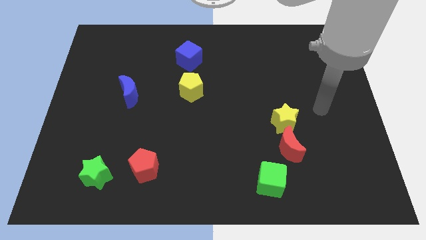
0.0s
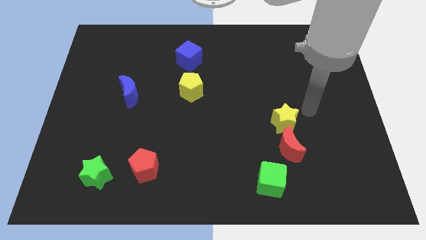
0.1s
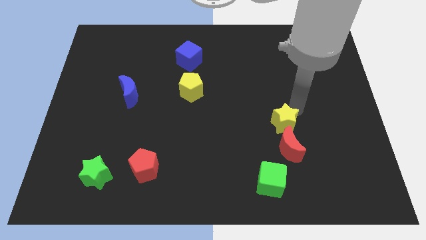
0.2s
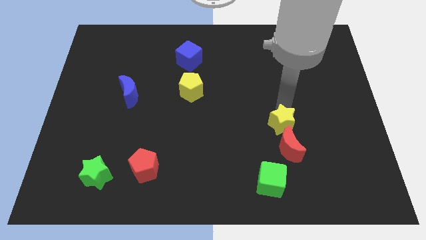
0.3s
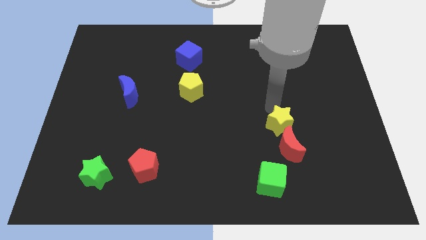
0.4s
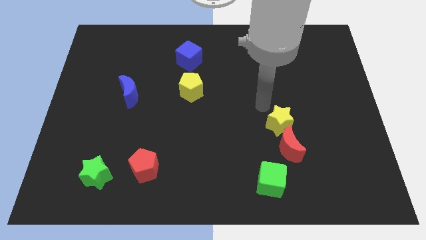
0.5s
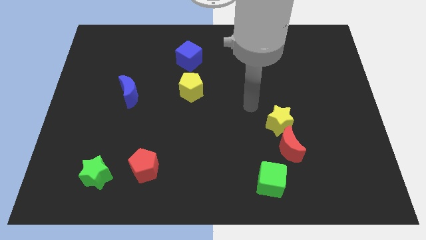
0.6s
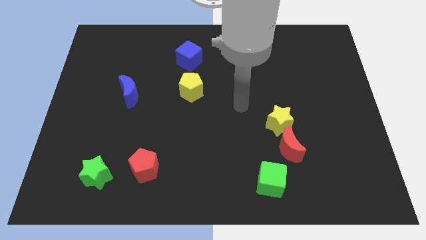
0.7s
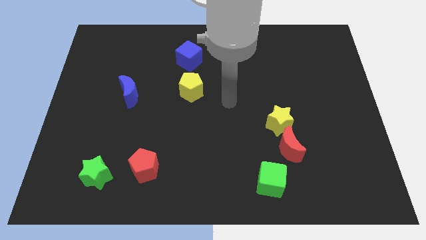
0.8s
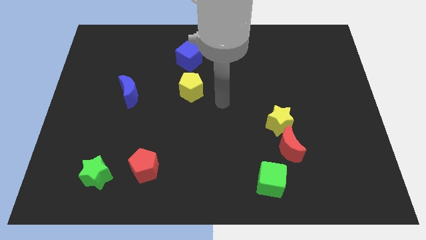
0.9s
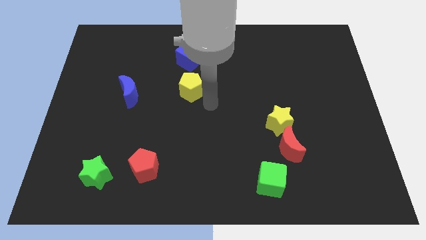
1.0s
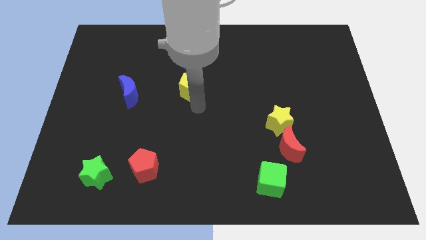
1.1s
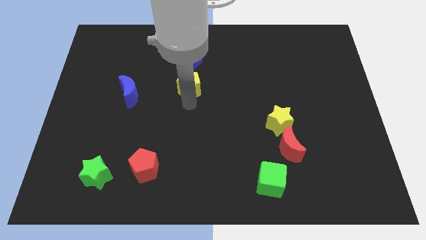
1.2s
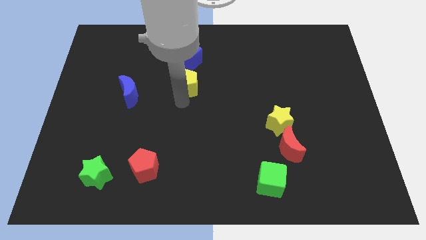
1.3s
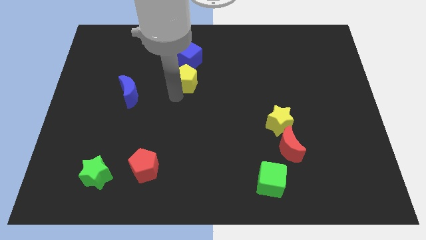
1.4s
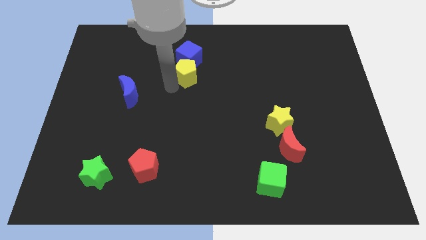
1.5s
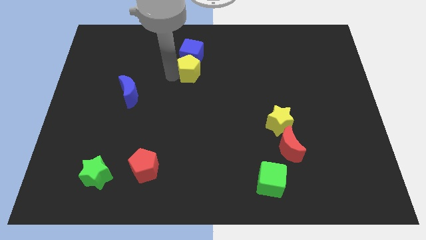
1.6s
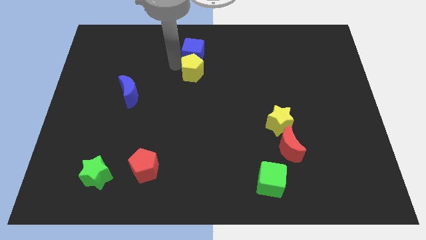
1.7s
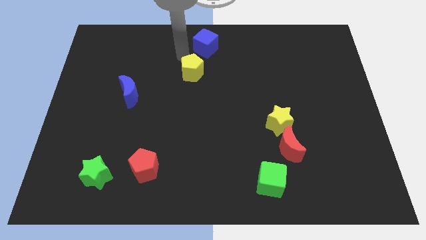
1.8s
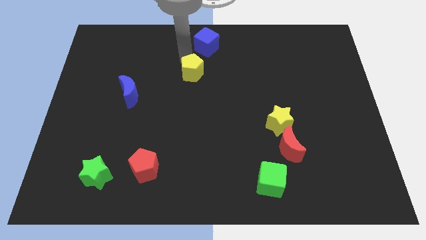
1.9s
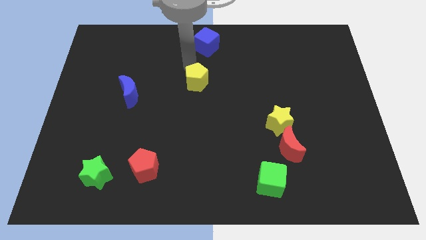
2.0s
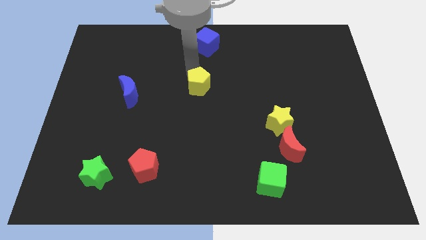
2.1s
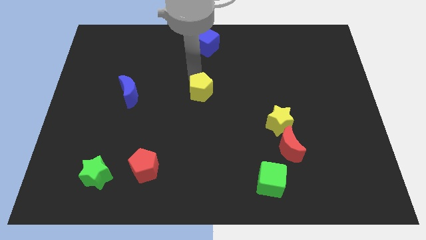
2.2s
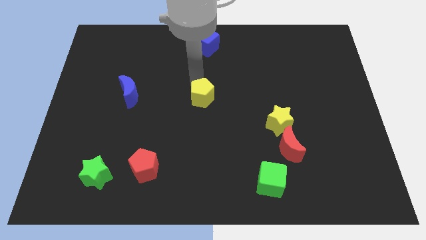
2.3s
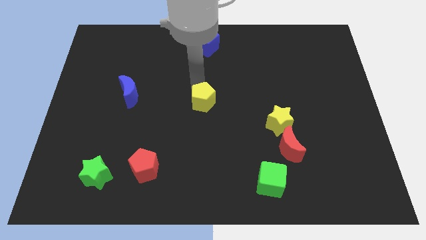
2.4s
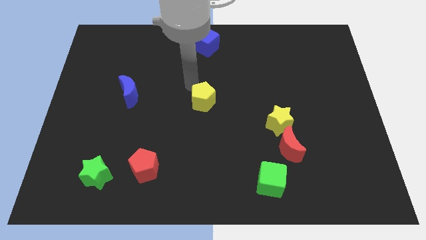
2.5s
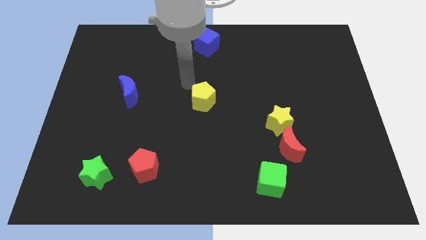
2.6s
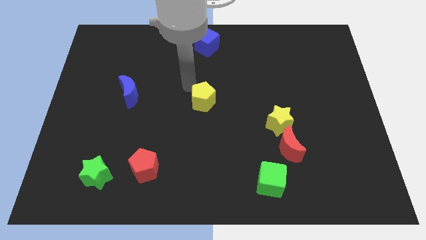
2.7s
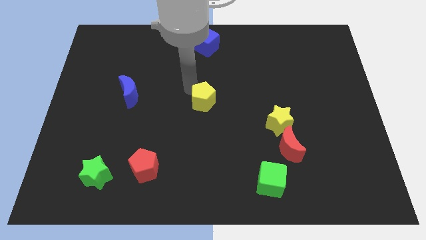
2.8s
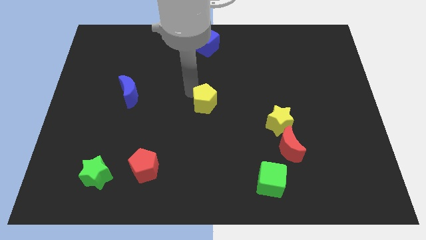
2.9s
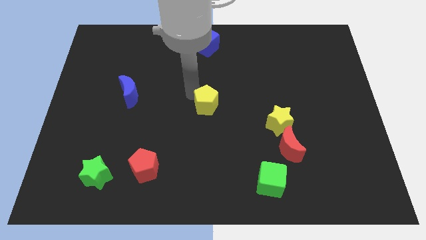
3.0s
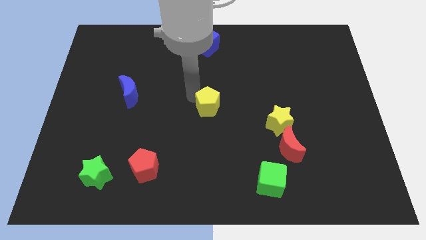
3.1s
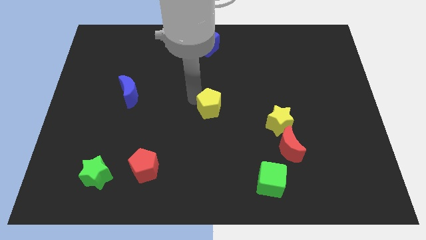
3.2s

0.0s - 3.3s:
slightly slide the yellow pentagon down and to the right

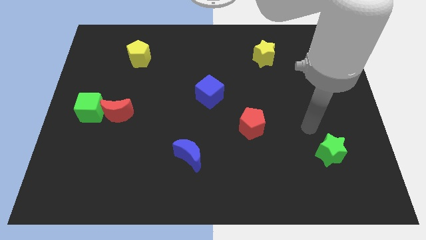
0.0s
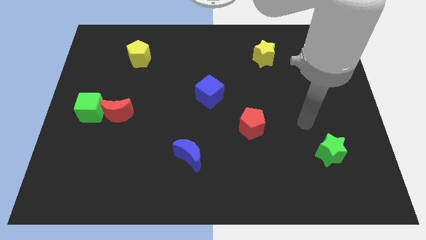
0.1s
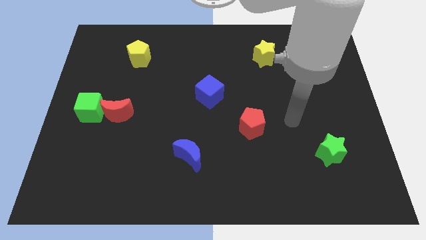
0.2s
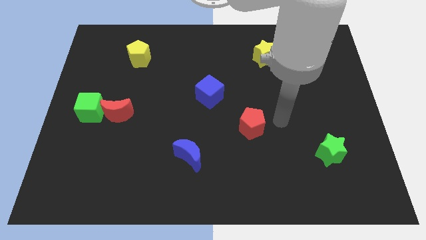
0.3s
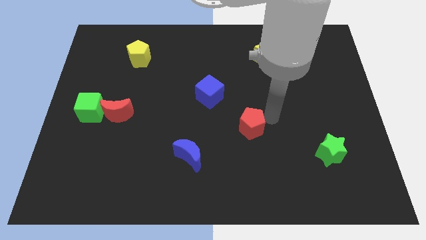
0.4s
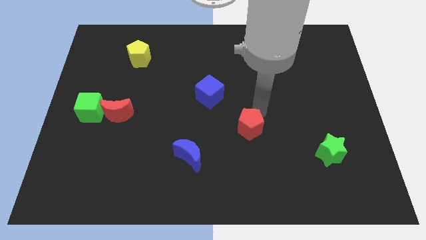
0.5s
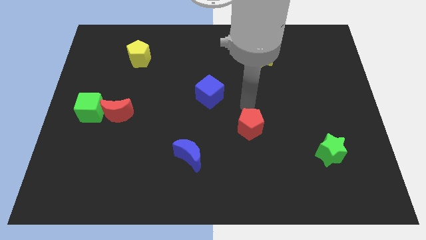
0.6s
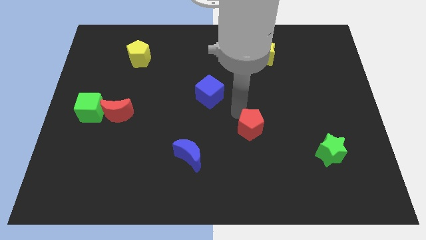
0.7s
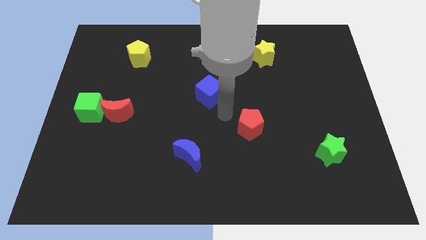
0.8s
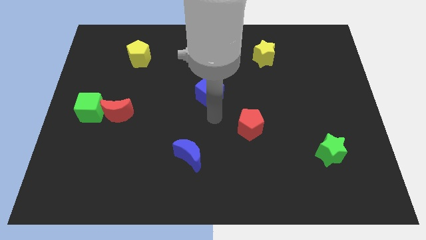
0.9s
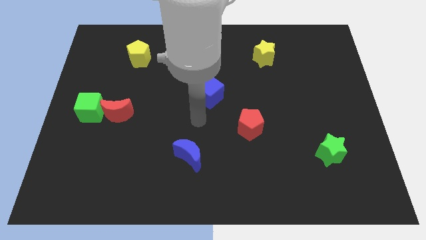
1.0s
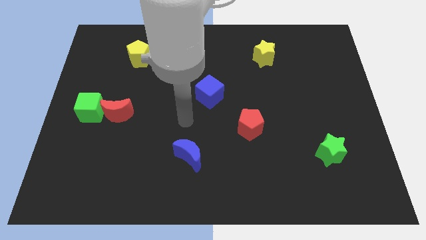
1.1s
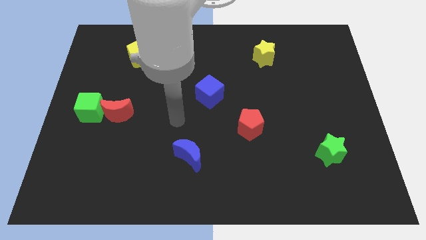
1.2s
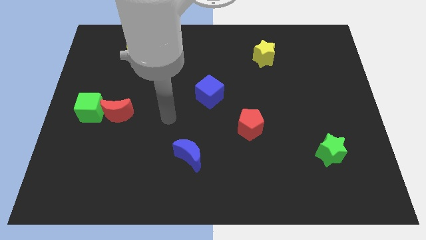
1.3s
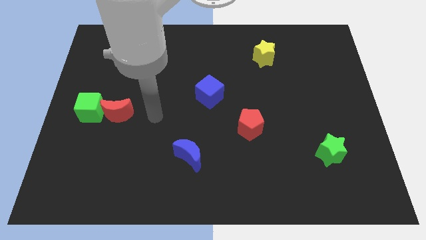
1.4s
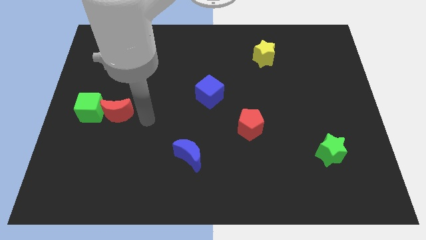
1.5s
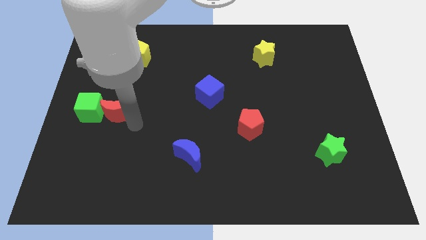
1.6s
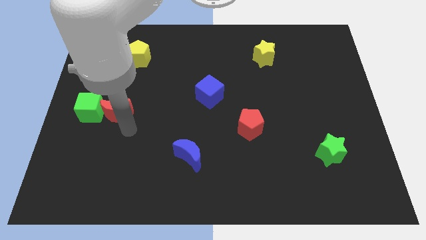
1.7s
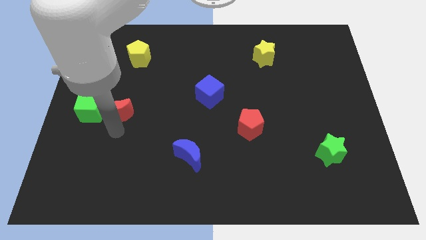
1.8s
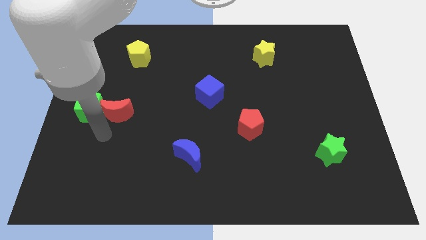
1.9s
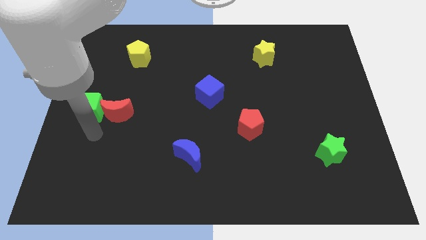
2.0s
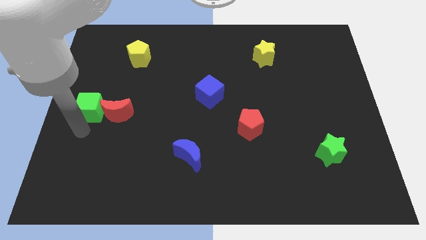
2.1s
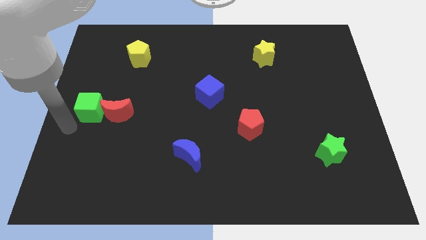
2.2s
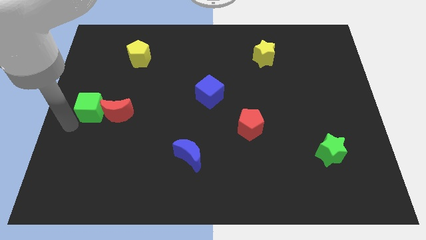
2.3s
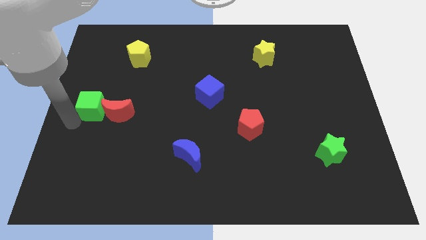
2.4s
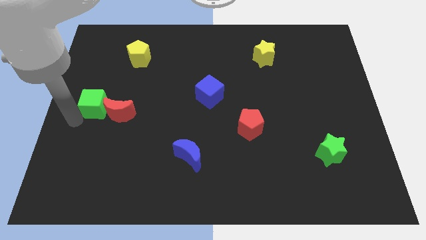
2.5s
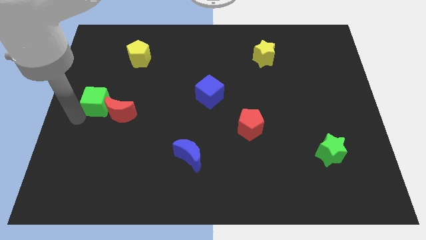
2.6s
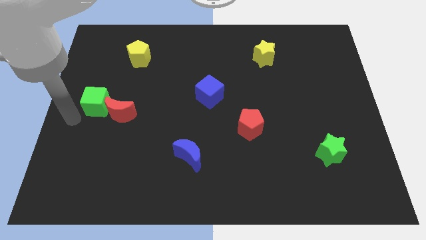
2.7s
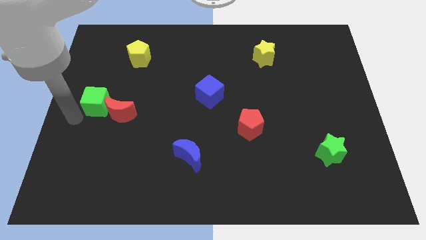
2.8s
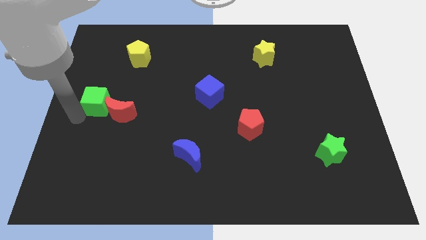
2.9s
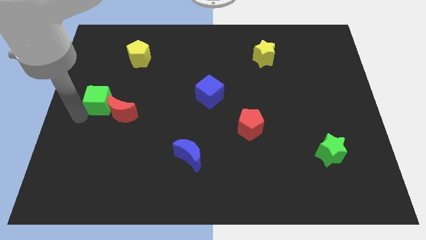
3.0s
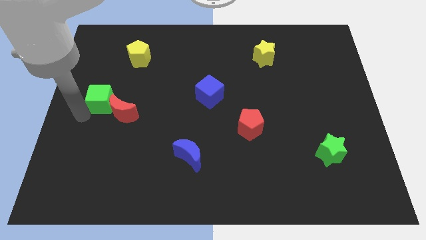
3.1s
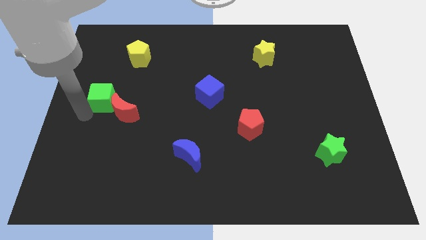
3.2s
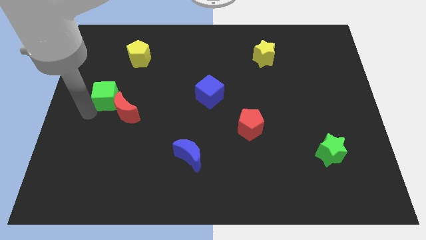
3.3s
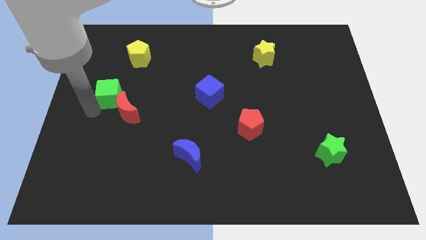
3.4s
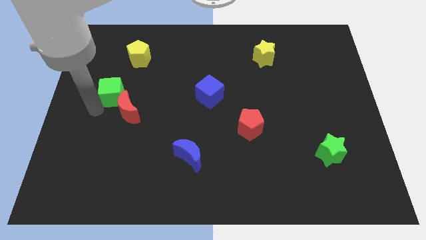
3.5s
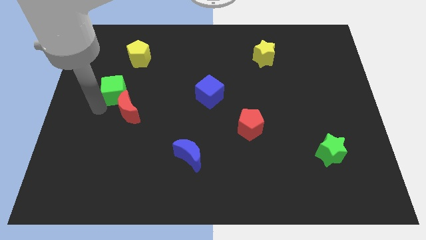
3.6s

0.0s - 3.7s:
move the green cube diagonally up and to the right a little bit

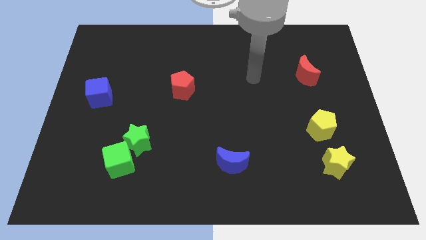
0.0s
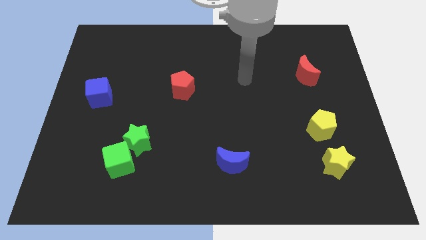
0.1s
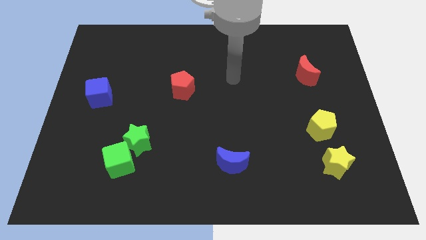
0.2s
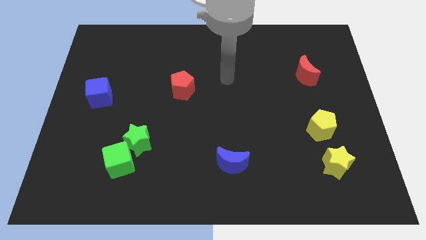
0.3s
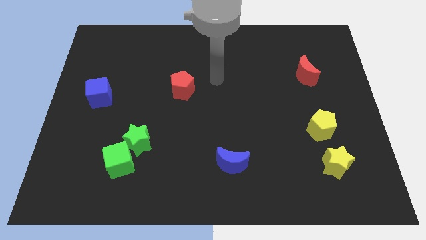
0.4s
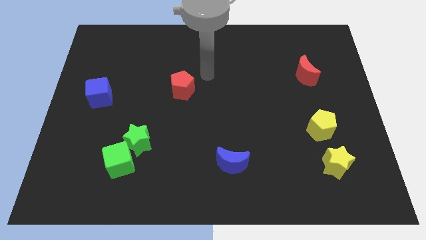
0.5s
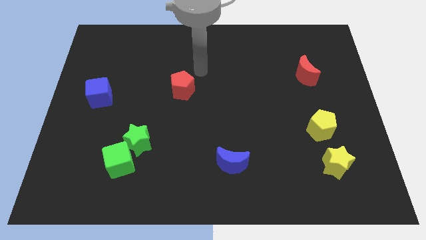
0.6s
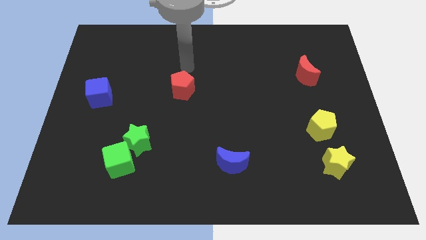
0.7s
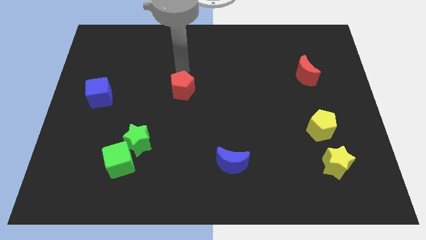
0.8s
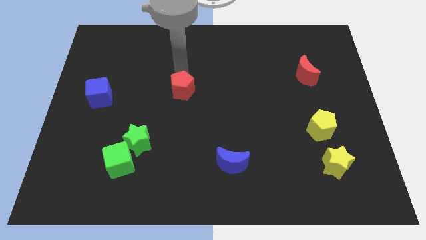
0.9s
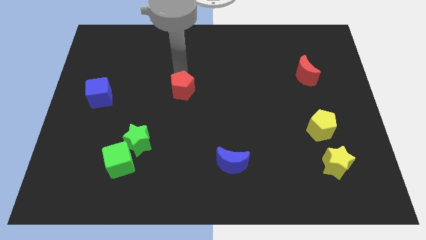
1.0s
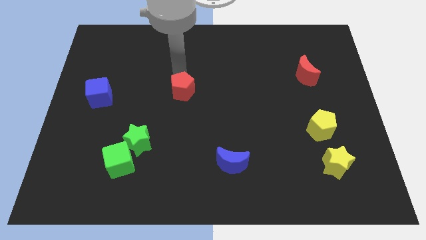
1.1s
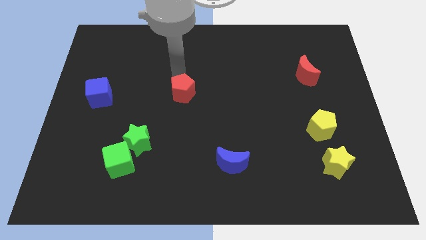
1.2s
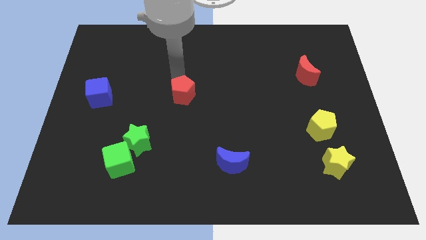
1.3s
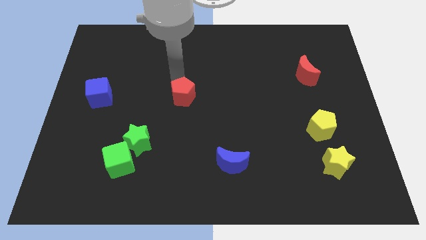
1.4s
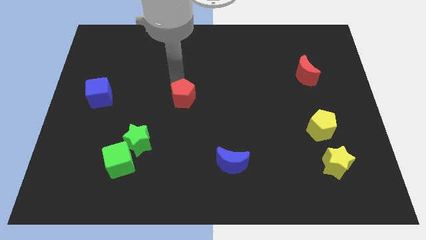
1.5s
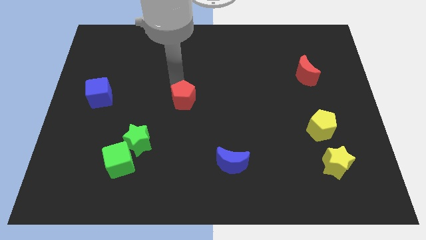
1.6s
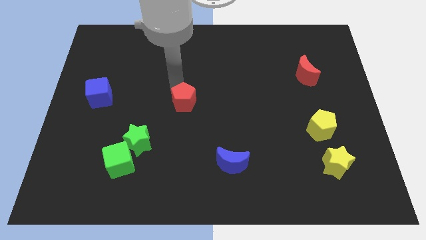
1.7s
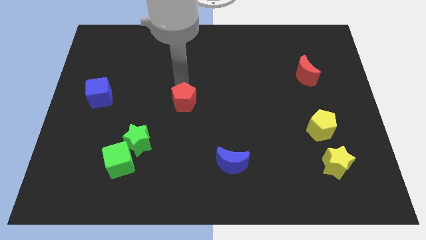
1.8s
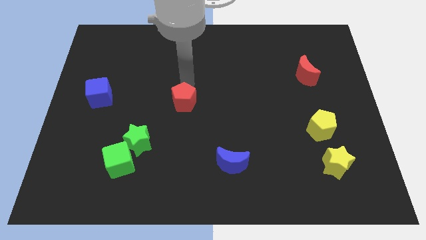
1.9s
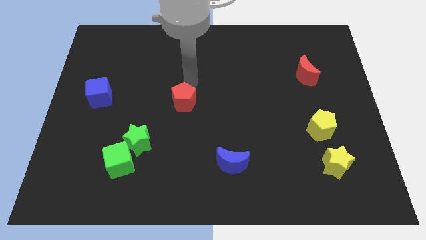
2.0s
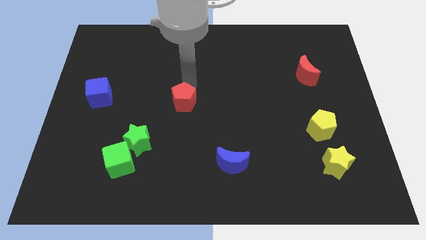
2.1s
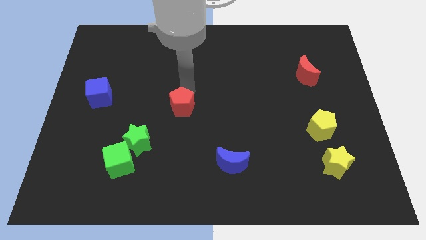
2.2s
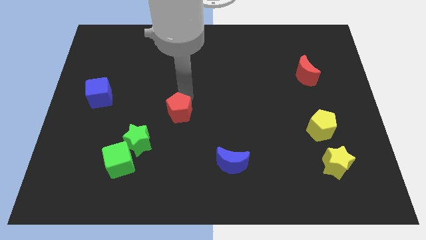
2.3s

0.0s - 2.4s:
push the red pentagon down a little bit
